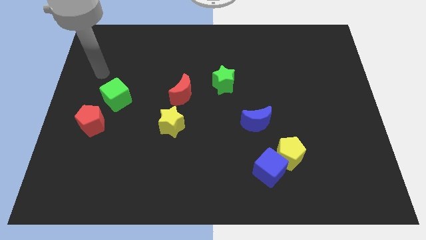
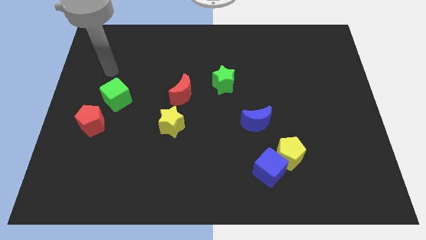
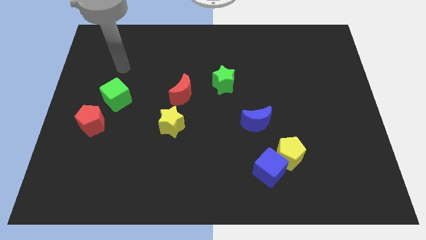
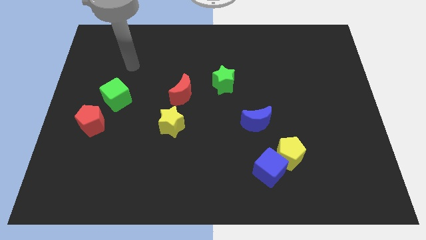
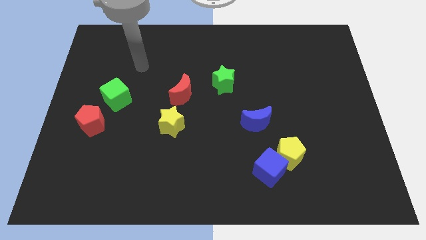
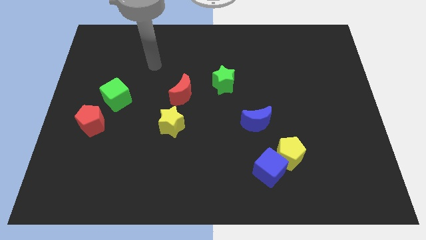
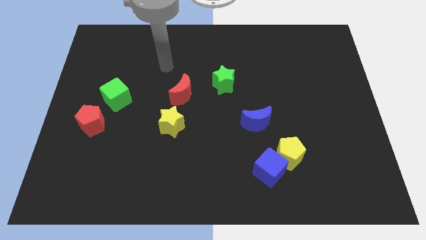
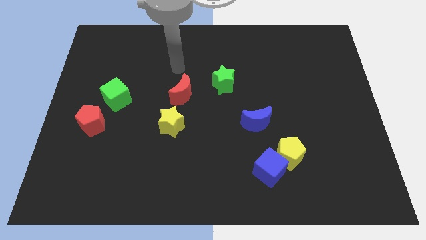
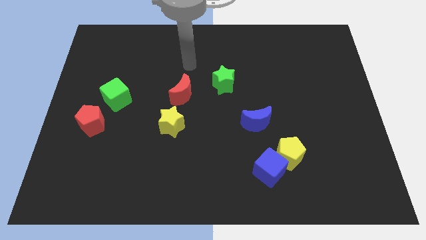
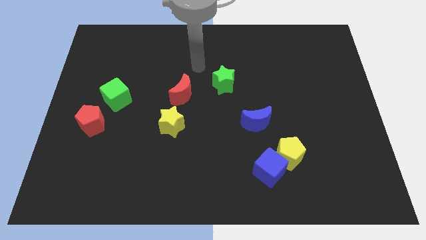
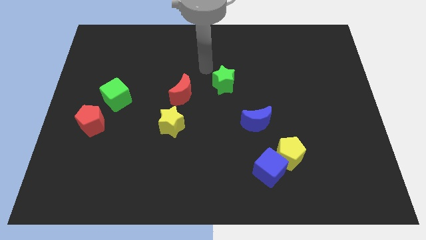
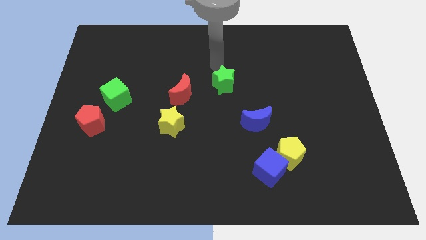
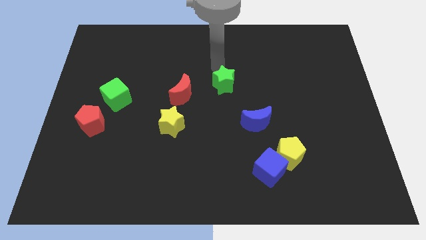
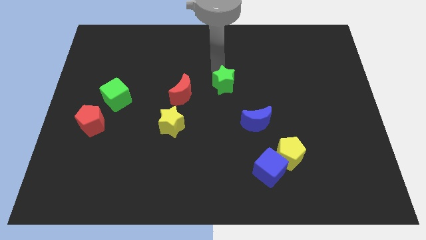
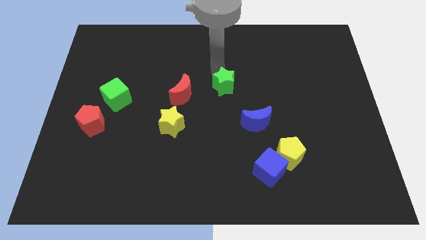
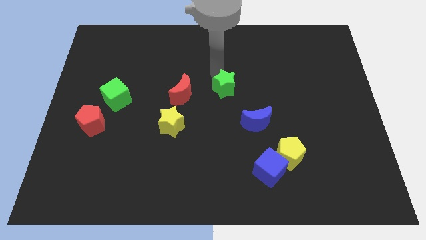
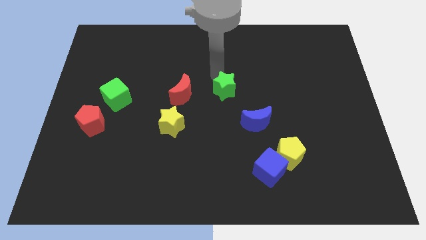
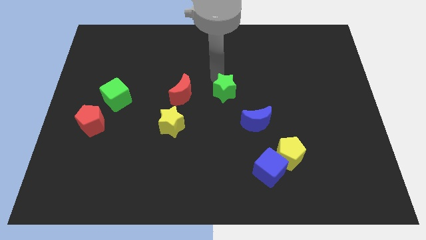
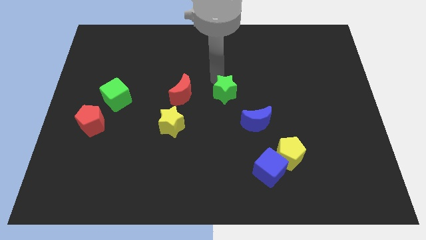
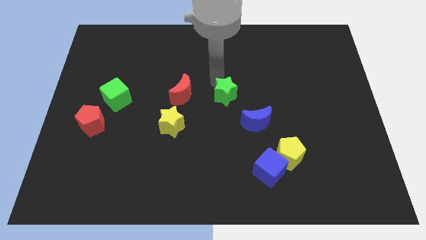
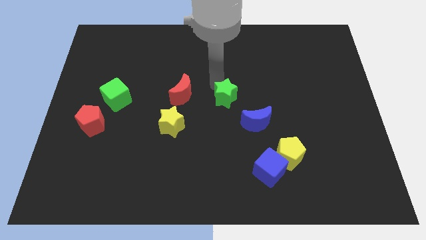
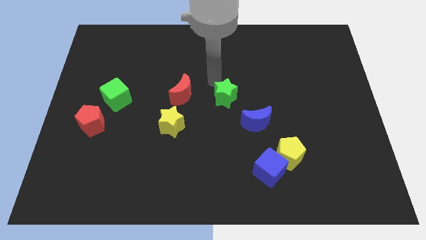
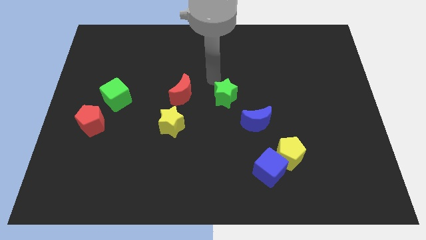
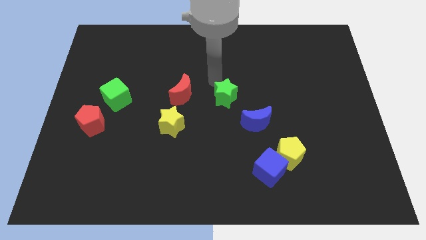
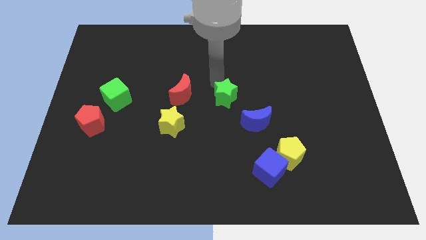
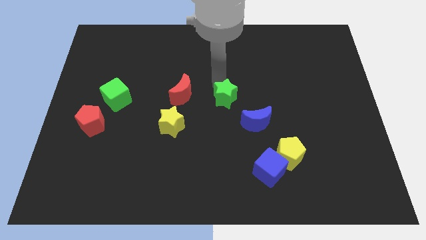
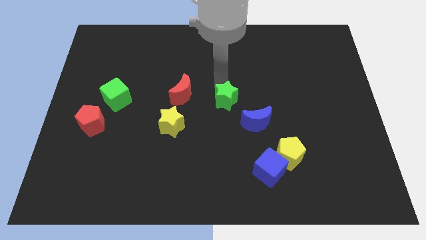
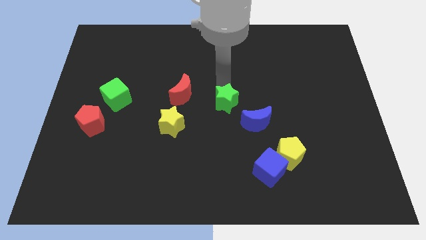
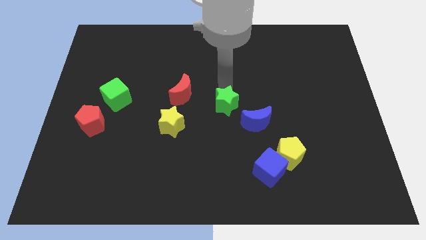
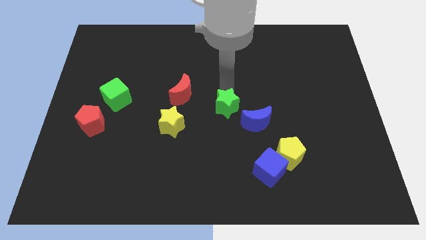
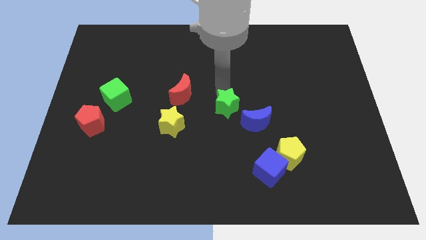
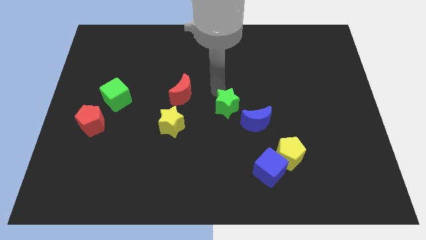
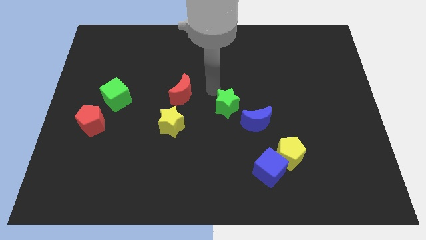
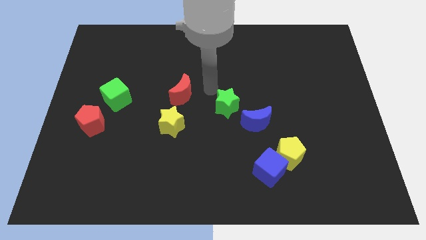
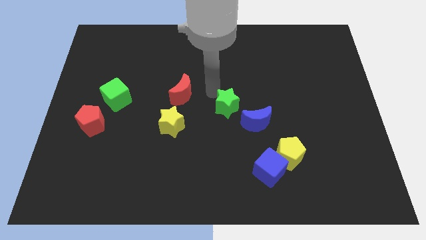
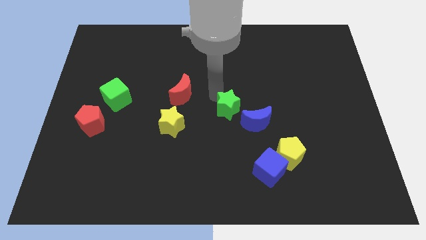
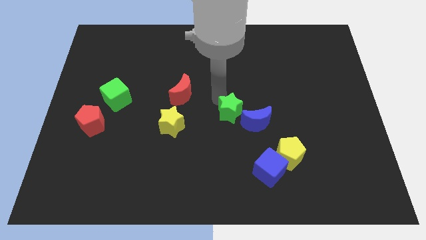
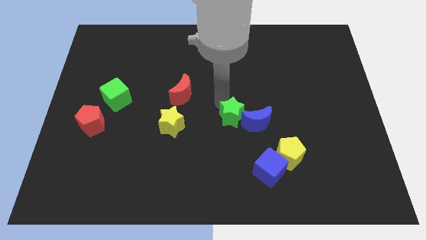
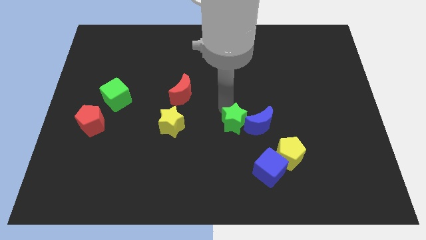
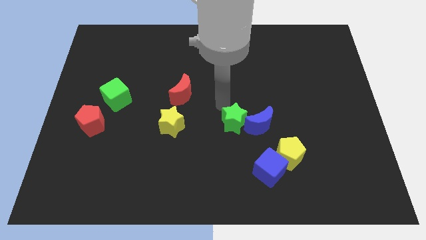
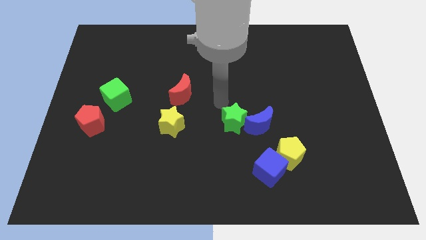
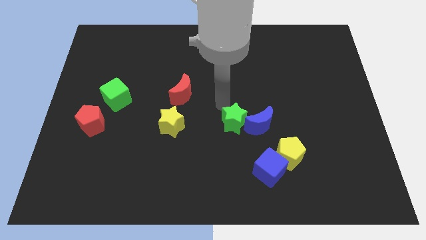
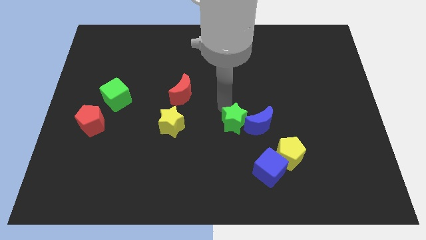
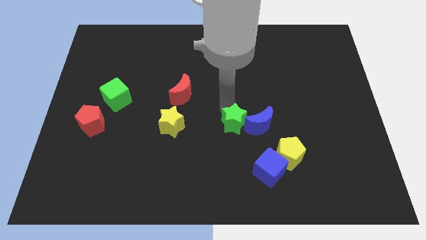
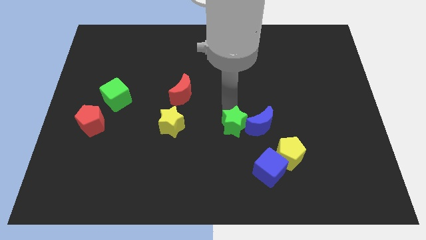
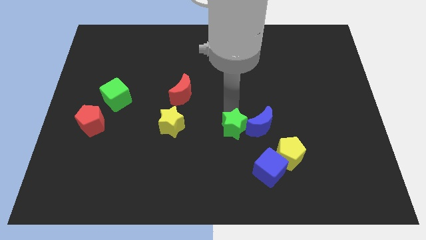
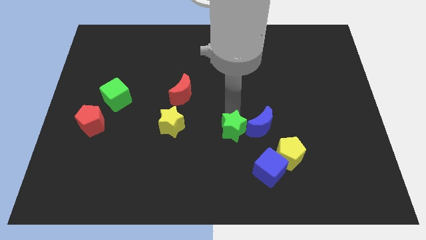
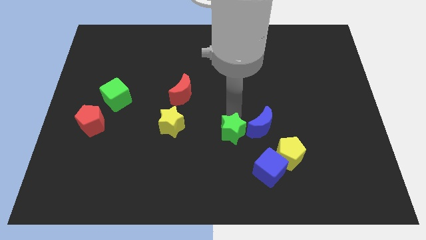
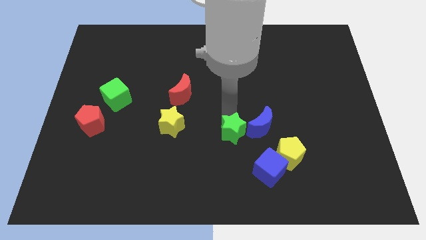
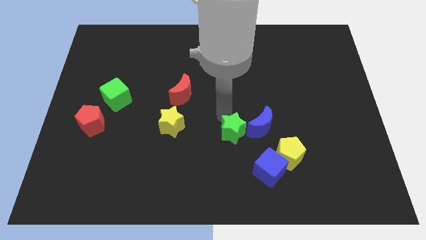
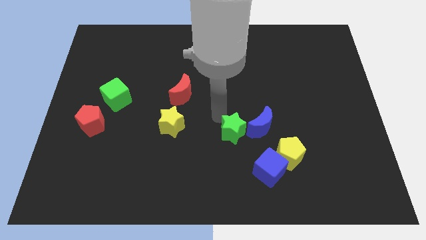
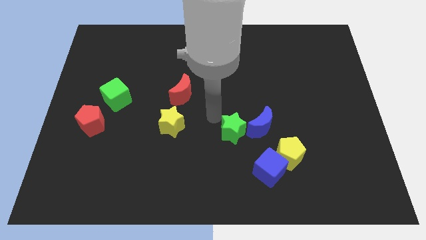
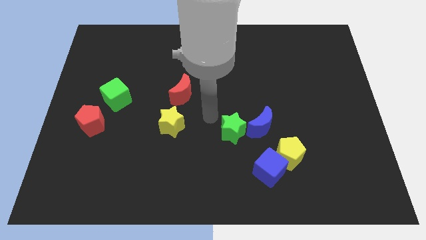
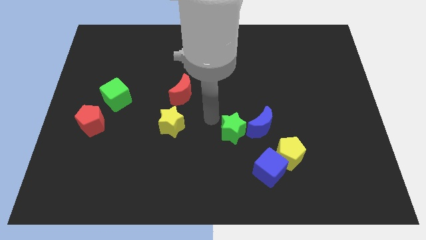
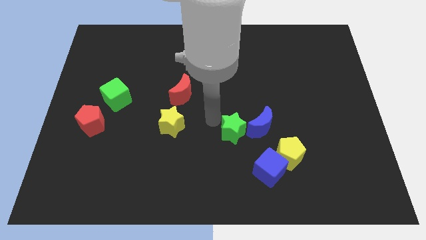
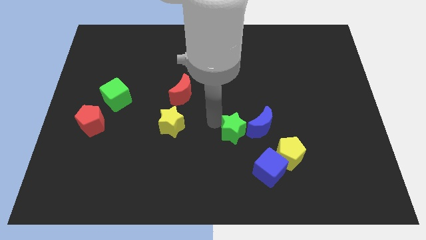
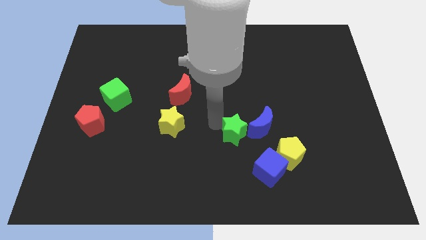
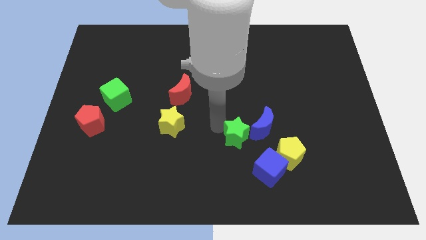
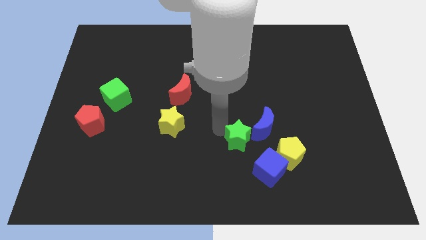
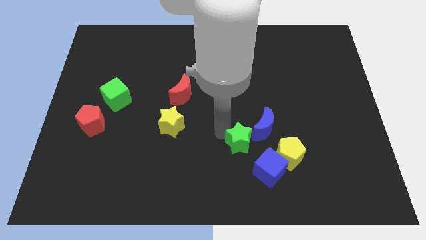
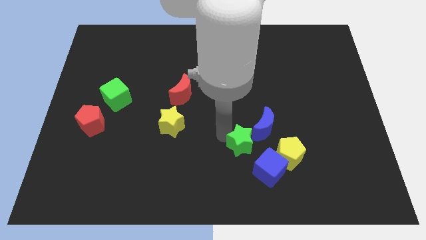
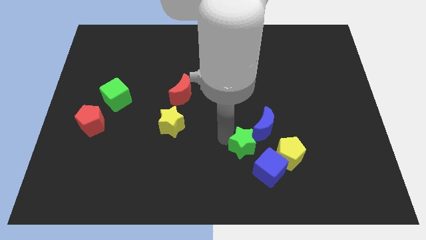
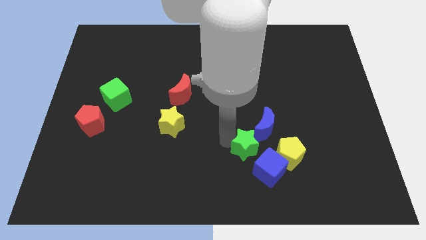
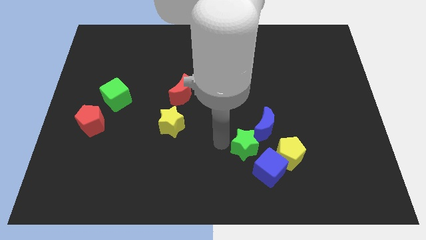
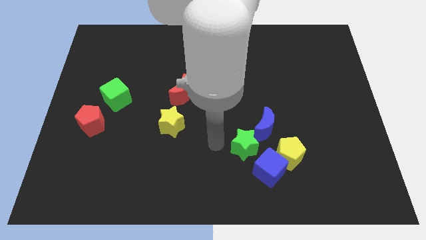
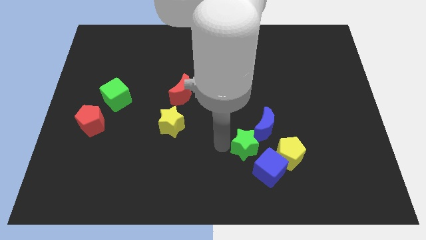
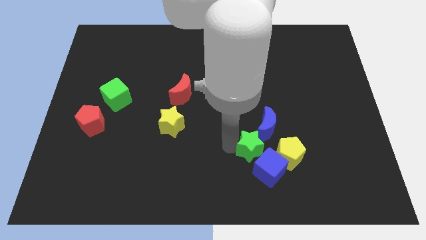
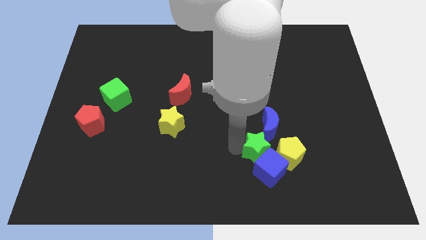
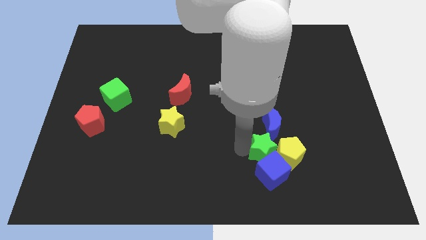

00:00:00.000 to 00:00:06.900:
put the green star next to the yellow pentagon

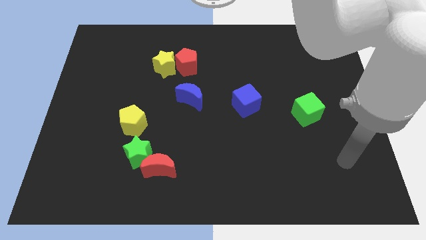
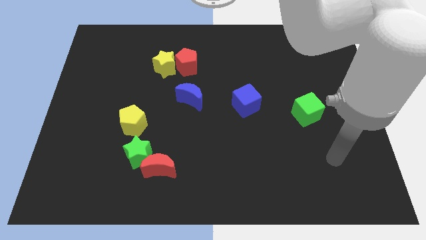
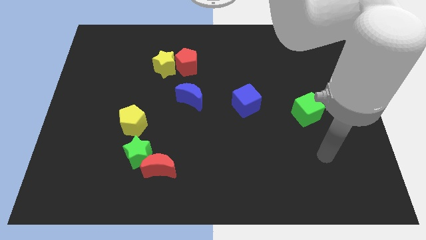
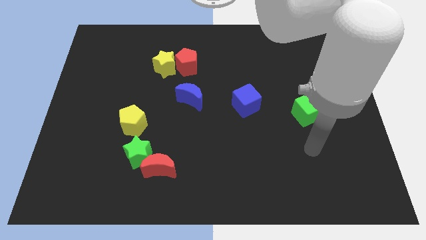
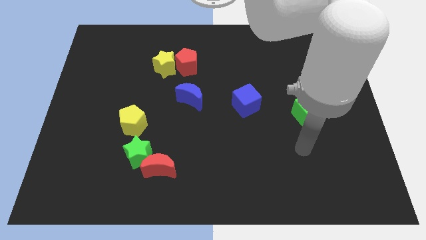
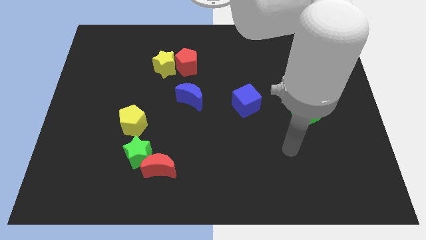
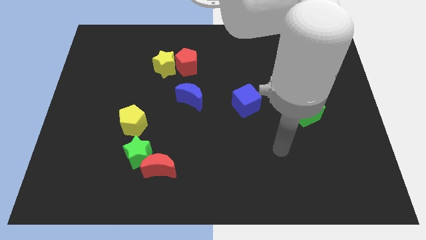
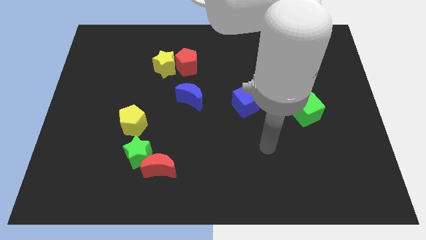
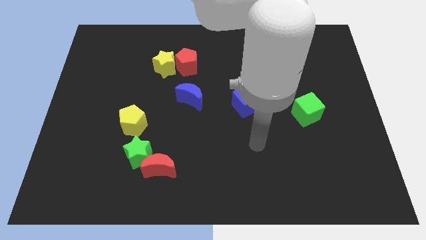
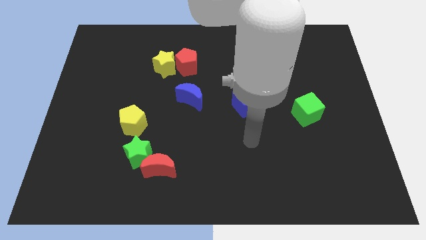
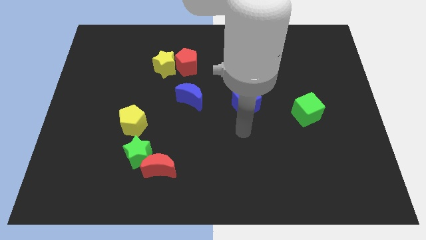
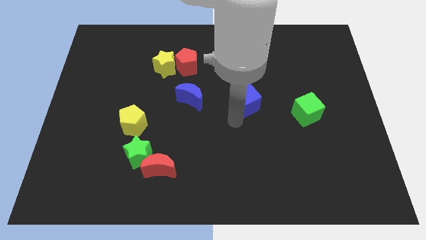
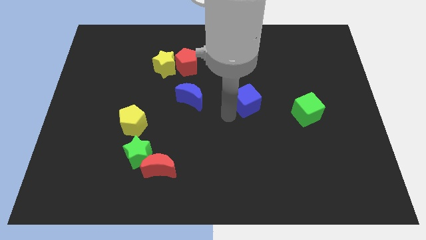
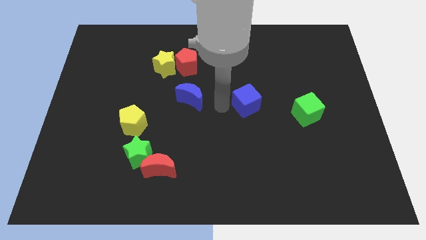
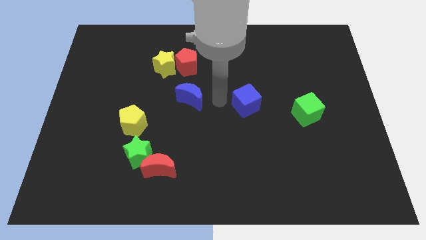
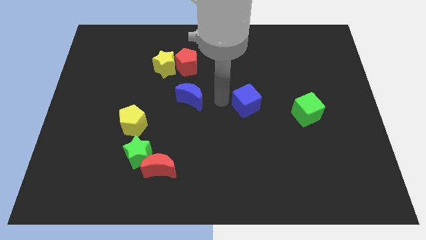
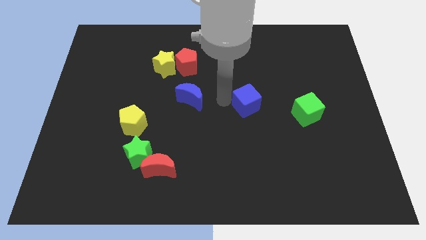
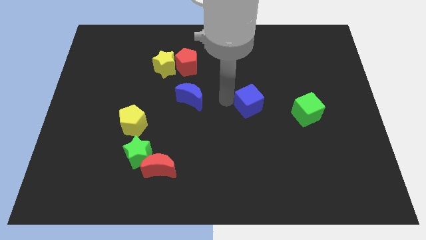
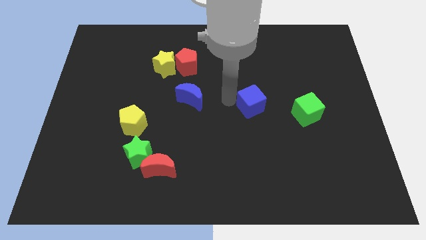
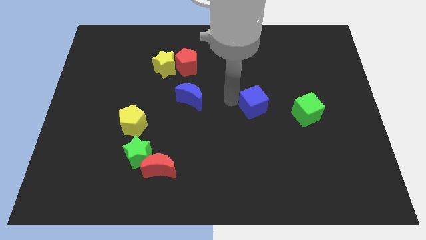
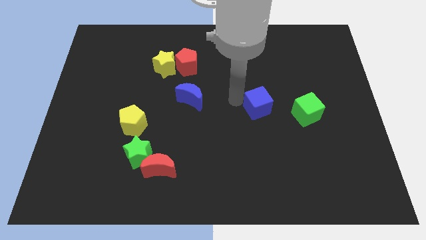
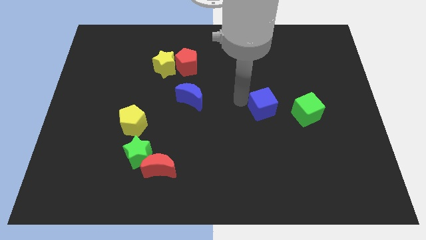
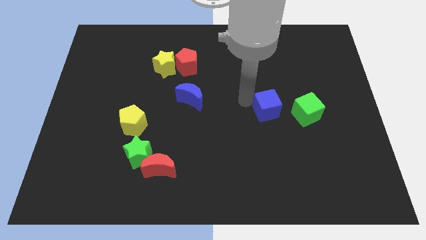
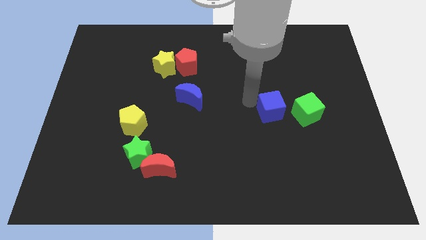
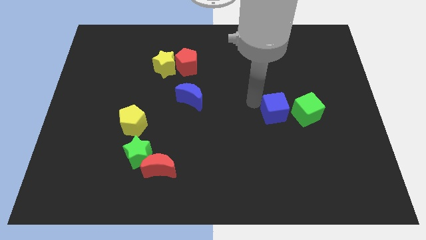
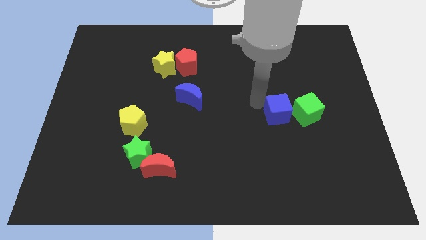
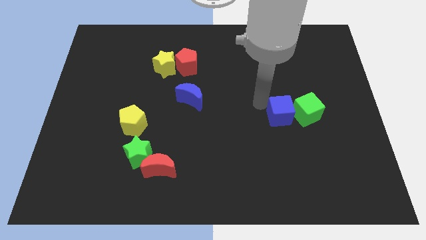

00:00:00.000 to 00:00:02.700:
slide the blue cube next to the green cube
